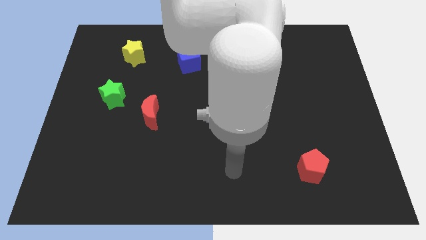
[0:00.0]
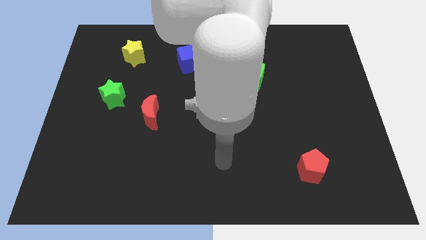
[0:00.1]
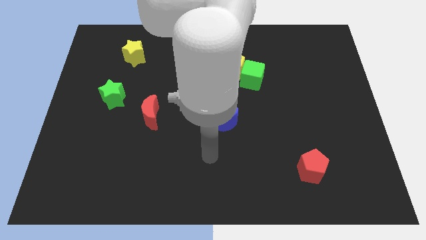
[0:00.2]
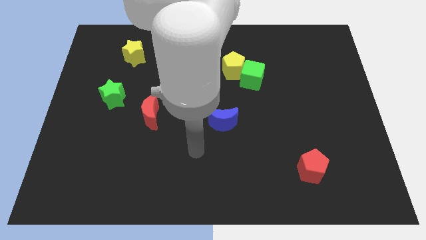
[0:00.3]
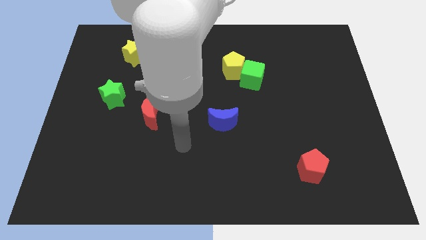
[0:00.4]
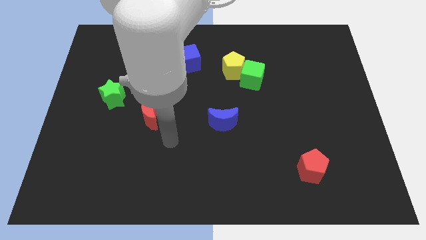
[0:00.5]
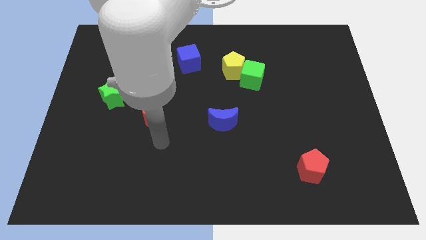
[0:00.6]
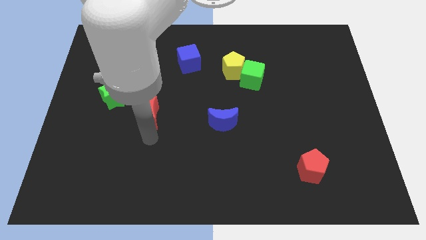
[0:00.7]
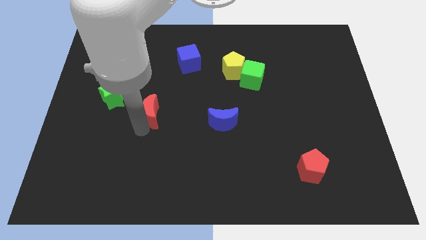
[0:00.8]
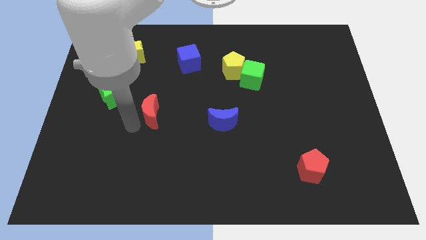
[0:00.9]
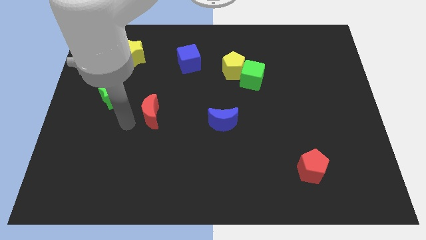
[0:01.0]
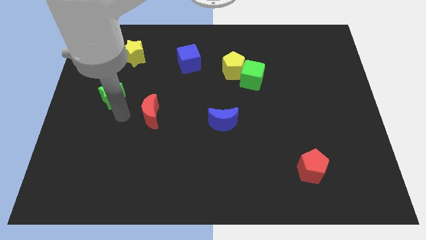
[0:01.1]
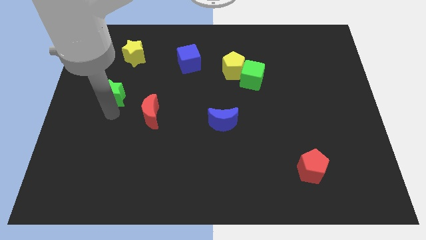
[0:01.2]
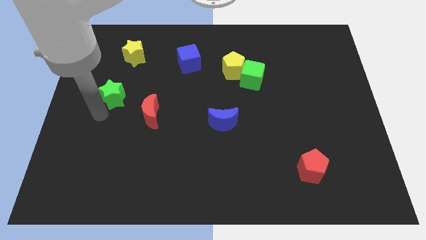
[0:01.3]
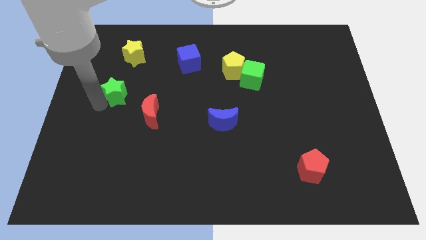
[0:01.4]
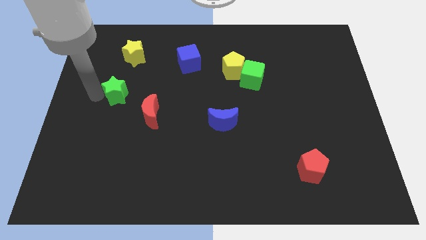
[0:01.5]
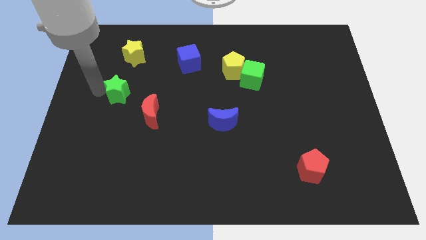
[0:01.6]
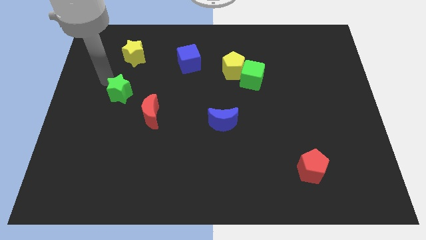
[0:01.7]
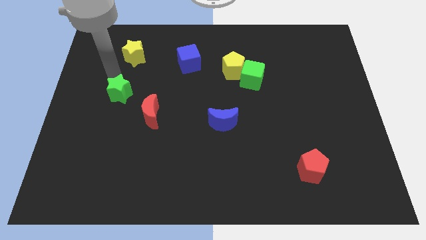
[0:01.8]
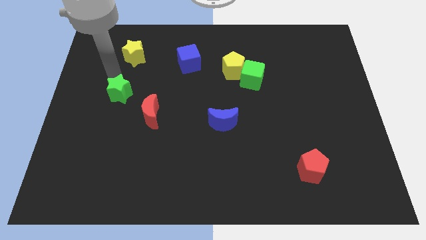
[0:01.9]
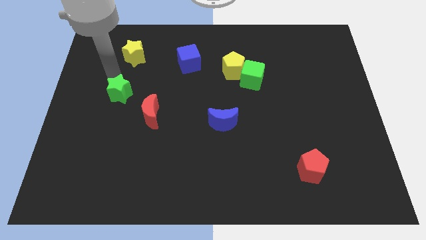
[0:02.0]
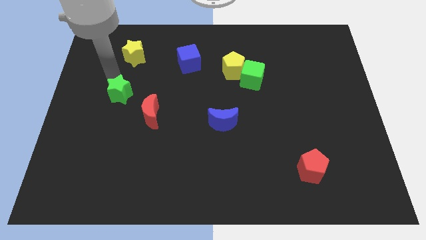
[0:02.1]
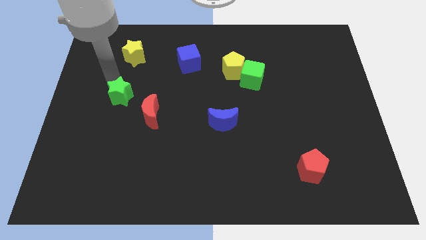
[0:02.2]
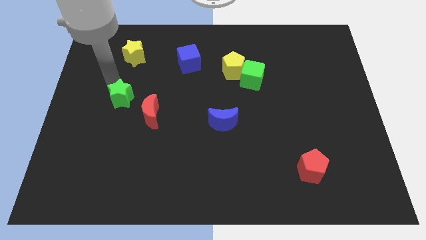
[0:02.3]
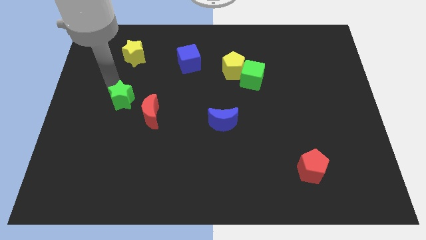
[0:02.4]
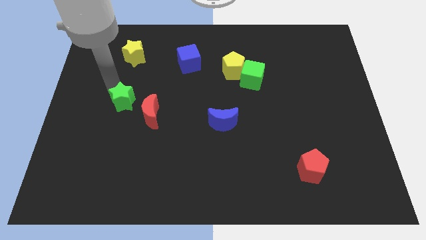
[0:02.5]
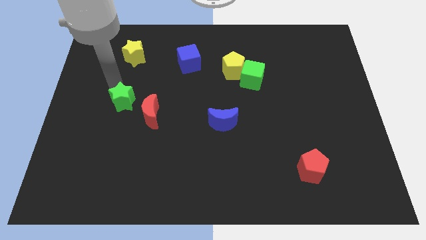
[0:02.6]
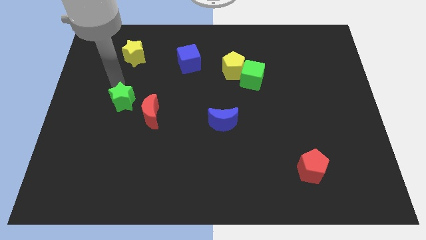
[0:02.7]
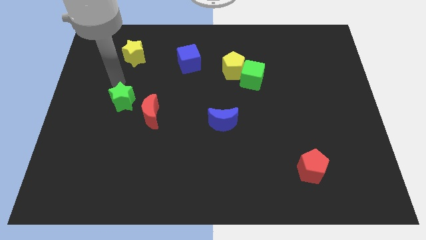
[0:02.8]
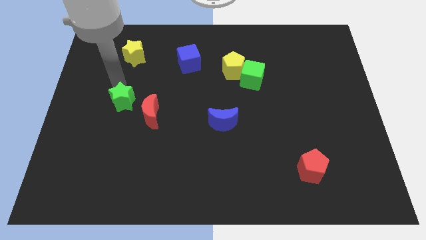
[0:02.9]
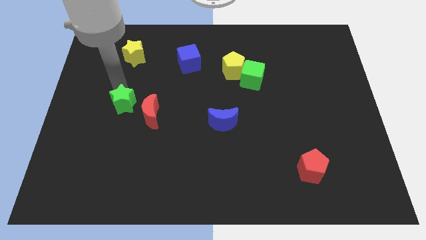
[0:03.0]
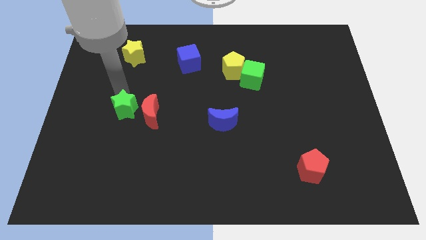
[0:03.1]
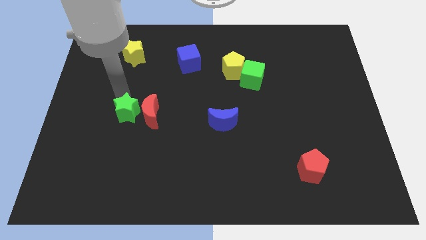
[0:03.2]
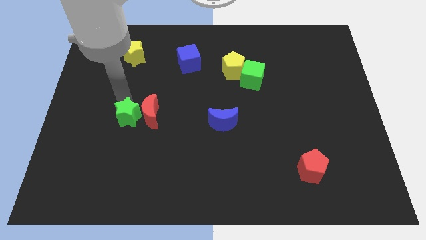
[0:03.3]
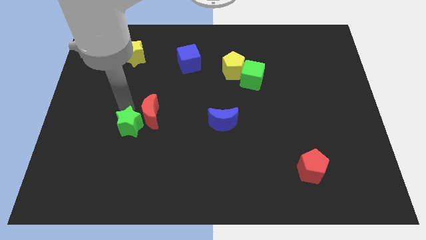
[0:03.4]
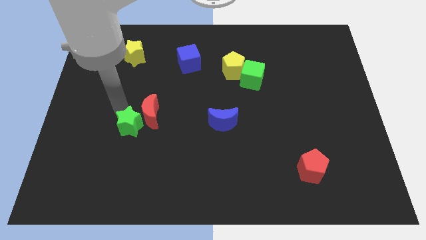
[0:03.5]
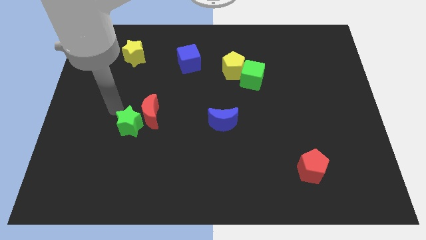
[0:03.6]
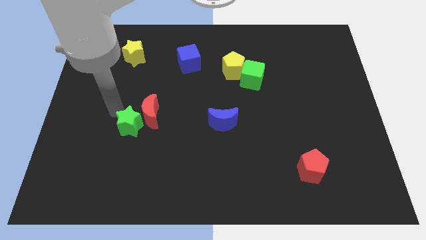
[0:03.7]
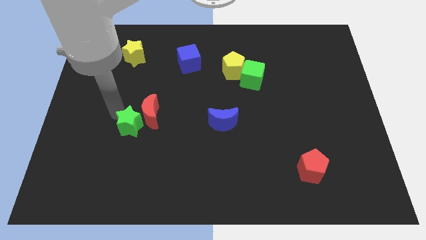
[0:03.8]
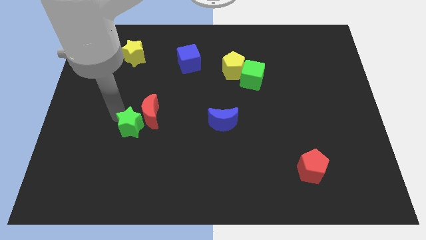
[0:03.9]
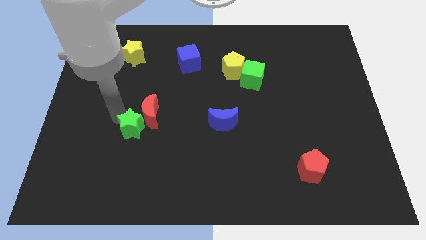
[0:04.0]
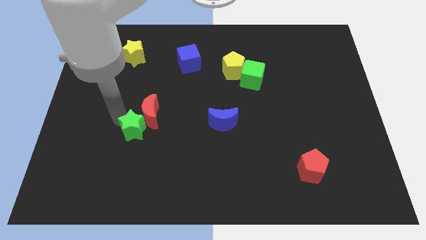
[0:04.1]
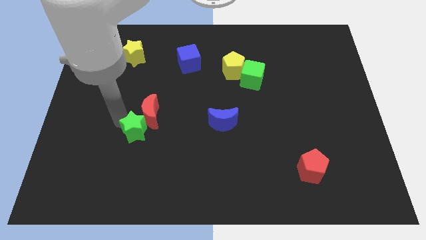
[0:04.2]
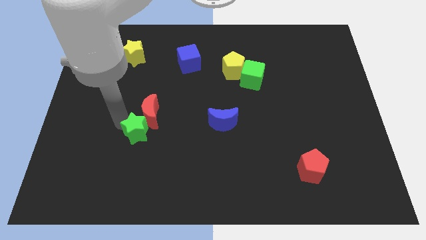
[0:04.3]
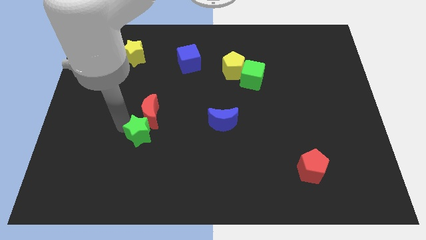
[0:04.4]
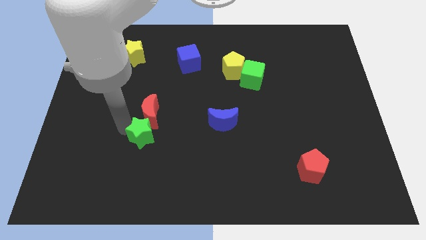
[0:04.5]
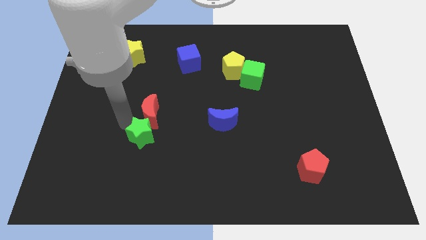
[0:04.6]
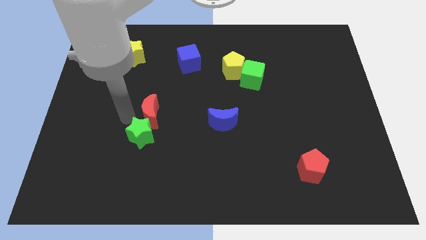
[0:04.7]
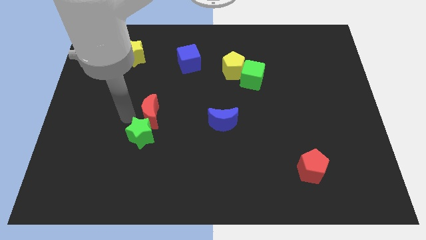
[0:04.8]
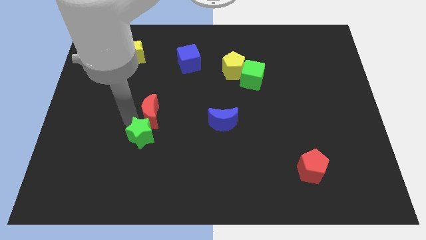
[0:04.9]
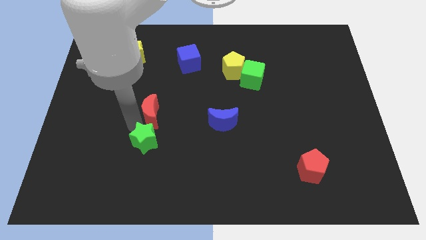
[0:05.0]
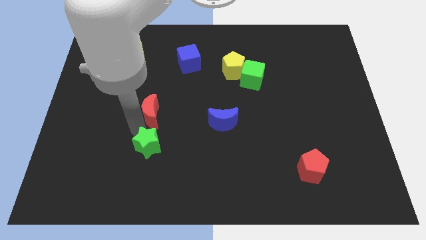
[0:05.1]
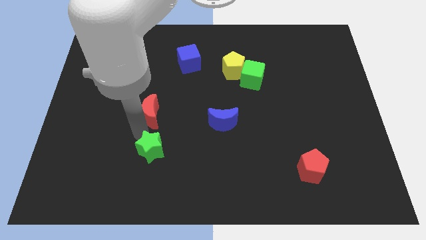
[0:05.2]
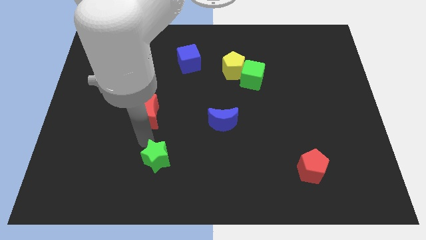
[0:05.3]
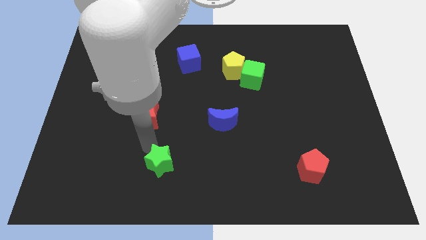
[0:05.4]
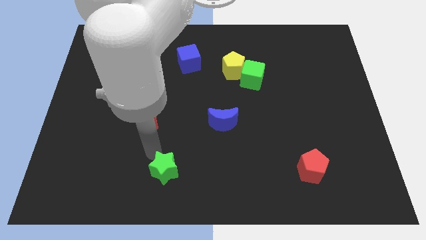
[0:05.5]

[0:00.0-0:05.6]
push the green star to the bottom
